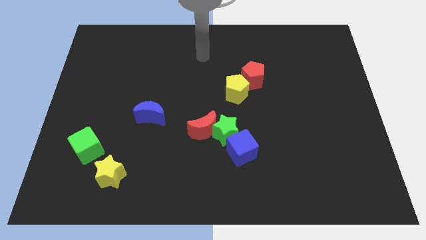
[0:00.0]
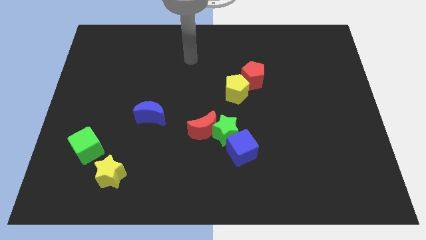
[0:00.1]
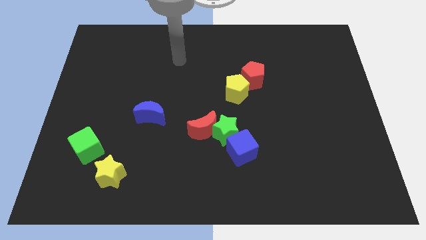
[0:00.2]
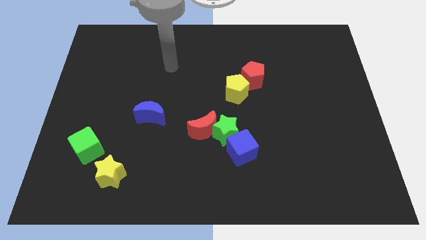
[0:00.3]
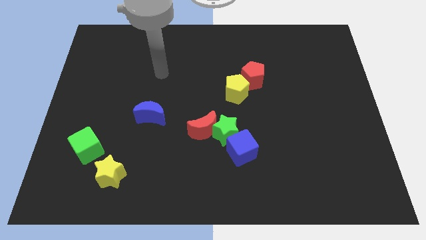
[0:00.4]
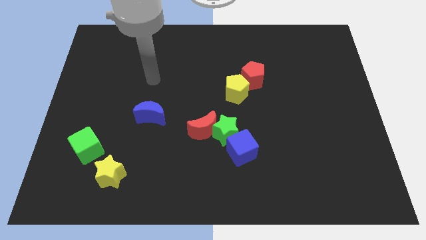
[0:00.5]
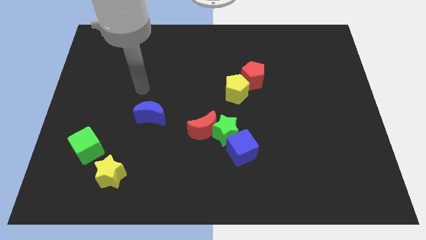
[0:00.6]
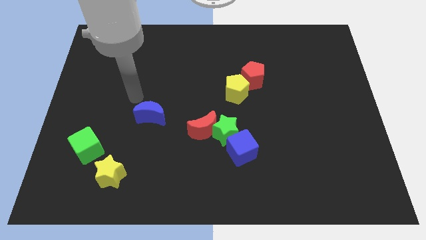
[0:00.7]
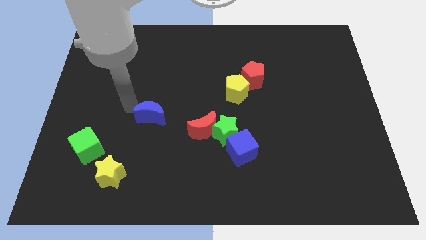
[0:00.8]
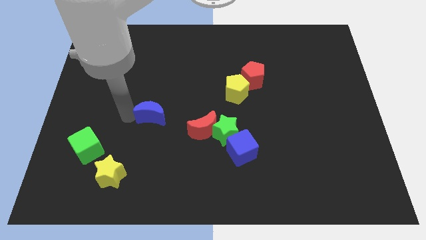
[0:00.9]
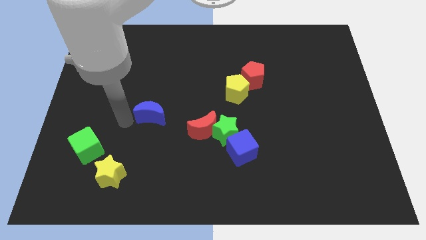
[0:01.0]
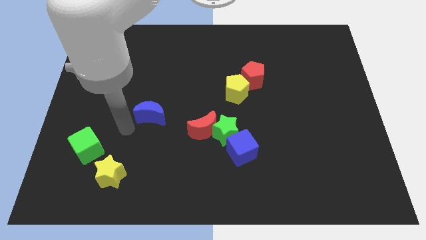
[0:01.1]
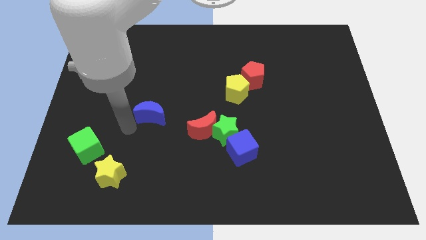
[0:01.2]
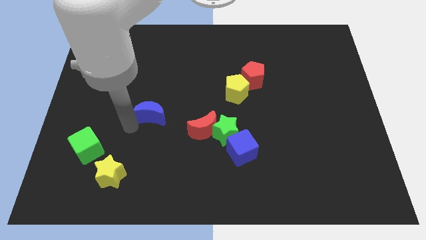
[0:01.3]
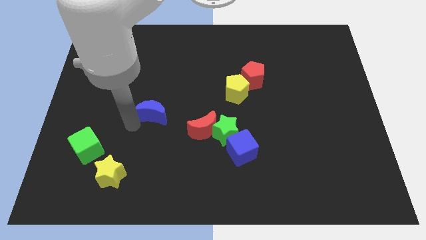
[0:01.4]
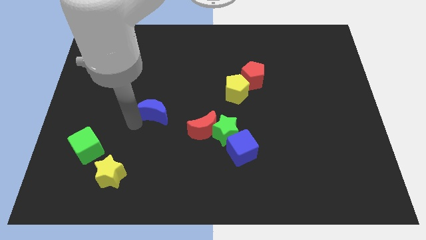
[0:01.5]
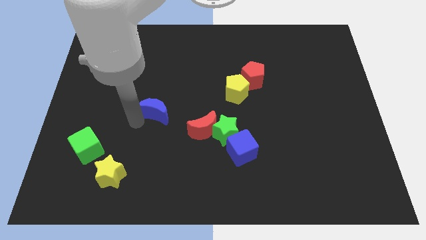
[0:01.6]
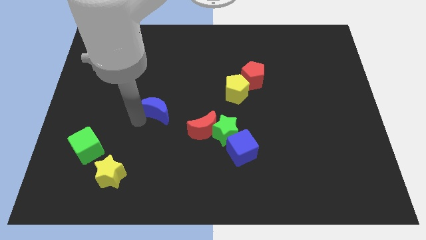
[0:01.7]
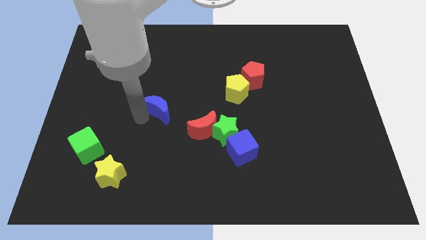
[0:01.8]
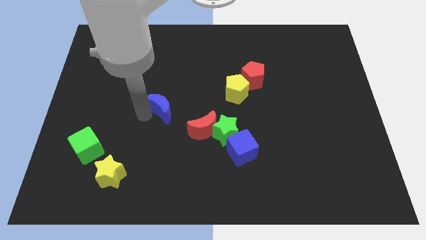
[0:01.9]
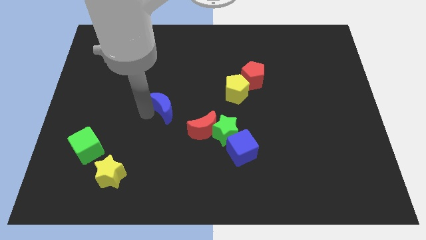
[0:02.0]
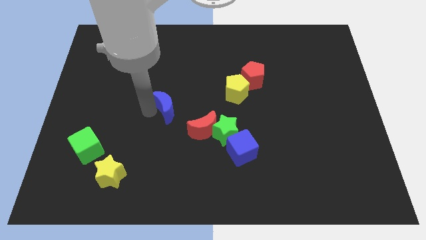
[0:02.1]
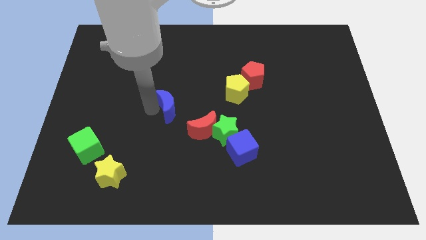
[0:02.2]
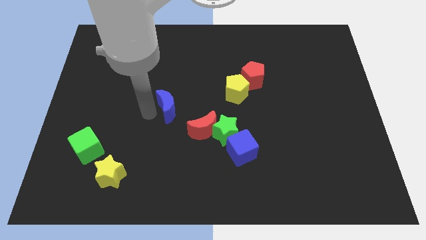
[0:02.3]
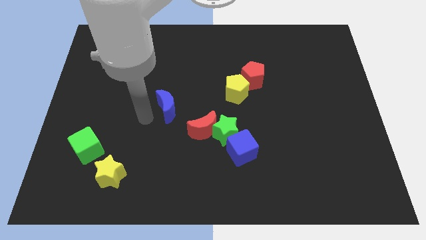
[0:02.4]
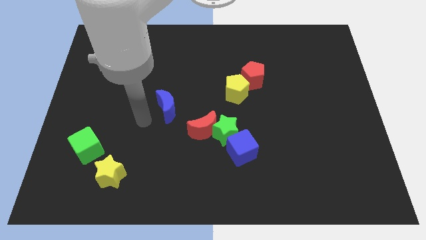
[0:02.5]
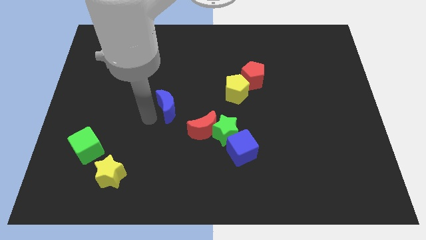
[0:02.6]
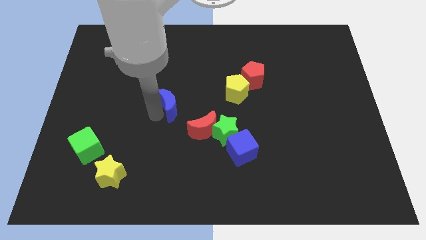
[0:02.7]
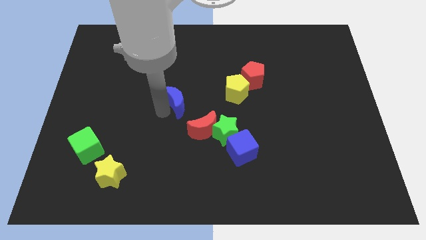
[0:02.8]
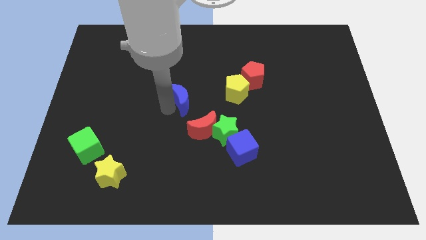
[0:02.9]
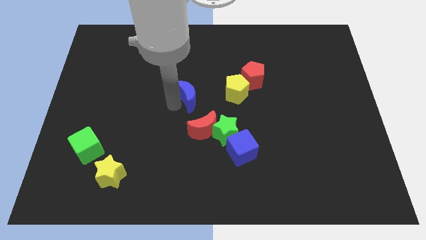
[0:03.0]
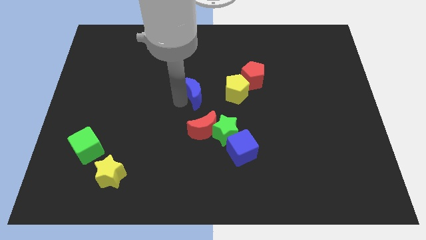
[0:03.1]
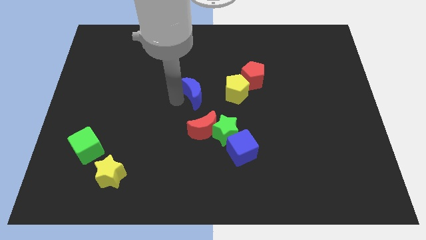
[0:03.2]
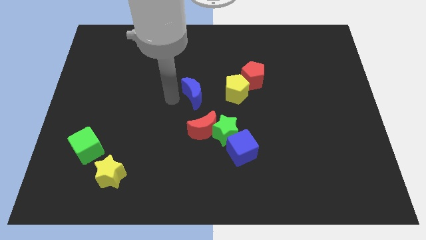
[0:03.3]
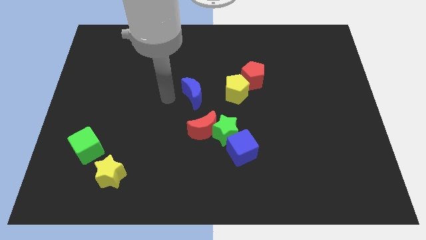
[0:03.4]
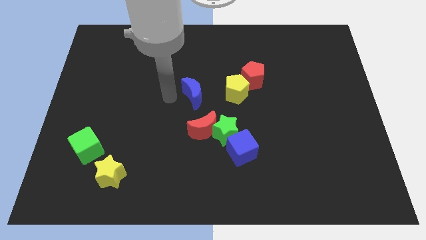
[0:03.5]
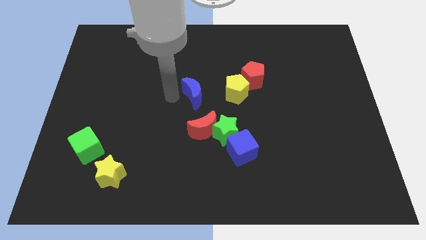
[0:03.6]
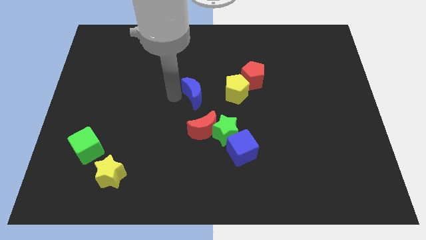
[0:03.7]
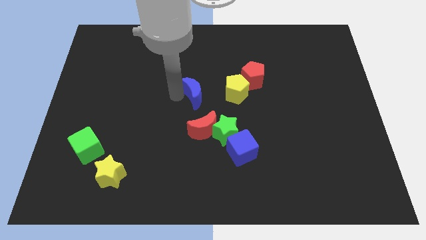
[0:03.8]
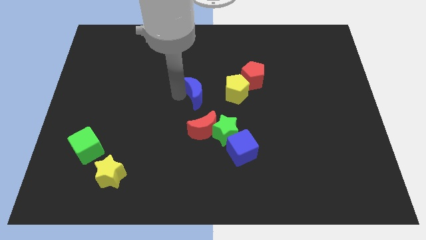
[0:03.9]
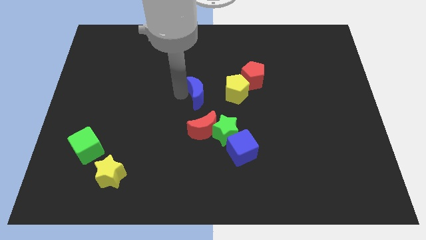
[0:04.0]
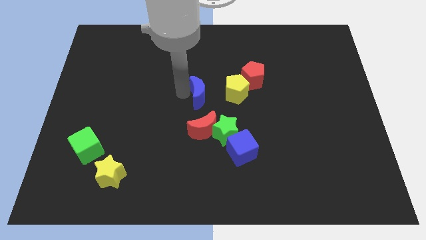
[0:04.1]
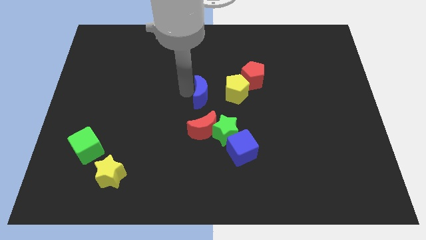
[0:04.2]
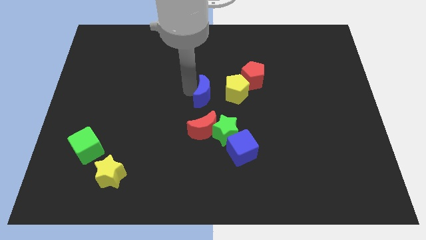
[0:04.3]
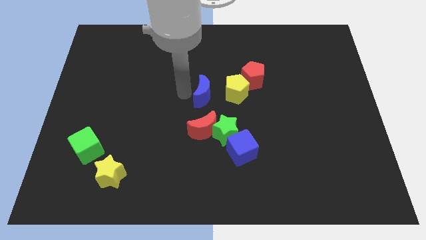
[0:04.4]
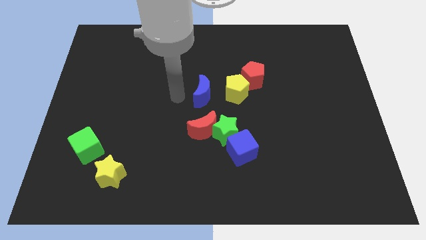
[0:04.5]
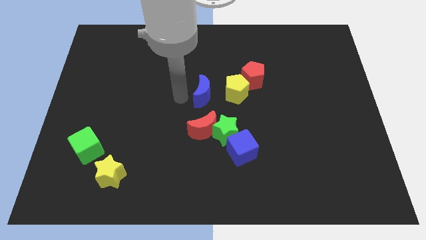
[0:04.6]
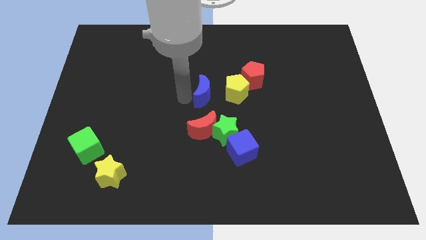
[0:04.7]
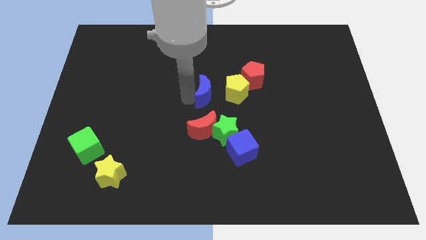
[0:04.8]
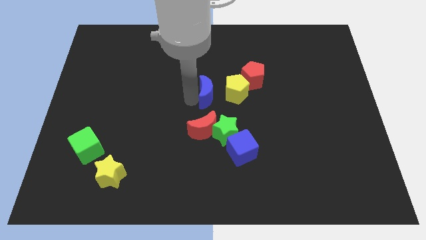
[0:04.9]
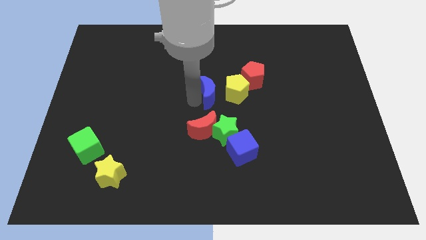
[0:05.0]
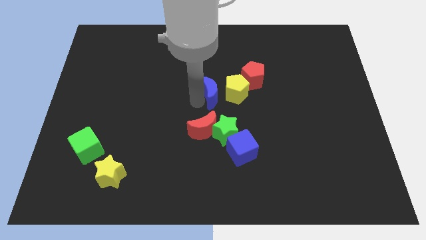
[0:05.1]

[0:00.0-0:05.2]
move the blue moon next to the yellow pentagon

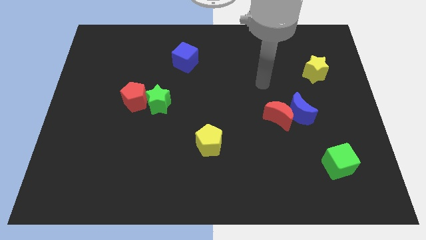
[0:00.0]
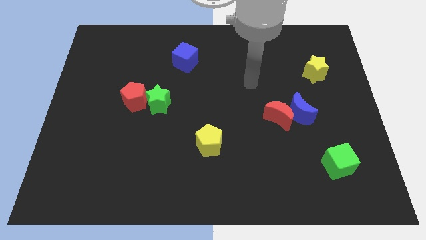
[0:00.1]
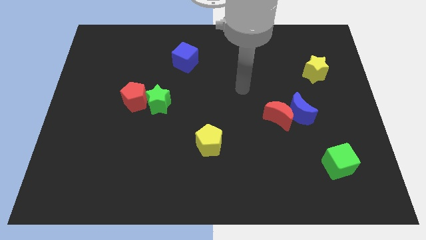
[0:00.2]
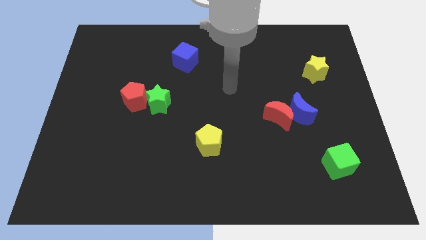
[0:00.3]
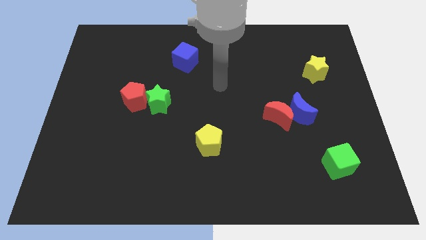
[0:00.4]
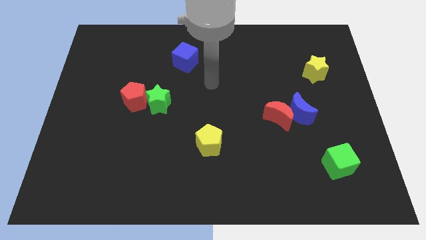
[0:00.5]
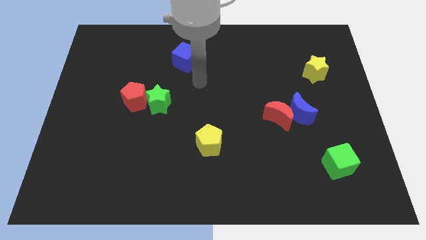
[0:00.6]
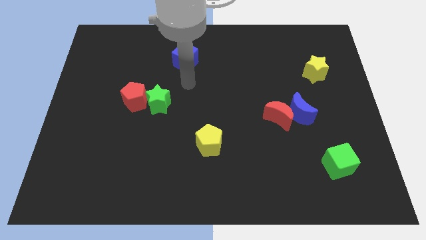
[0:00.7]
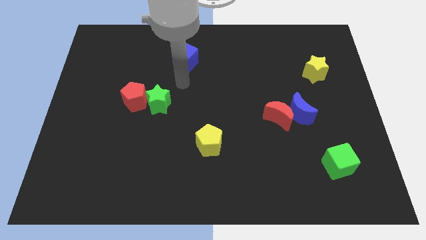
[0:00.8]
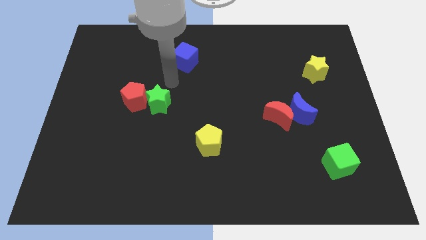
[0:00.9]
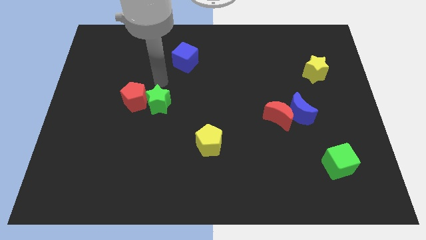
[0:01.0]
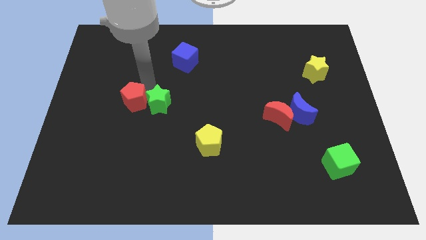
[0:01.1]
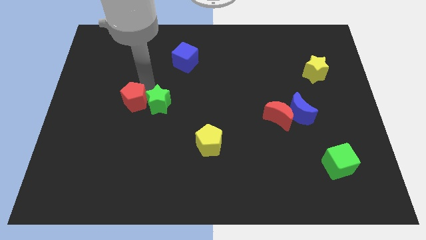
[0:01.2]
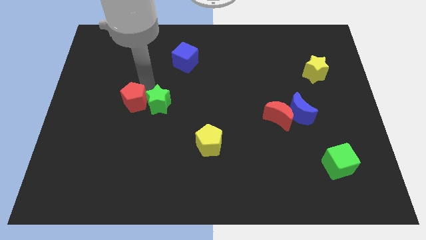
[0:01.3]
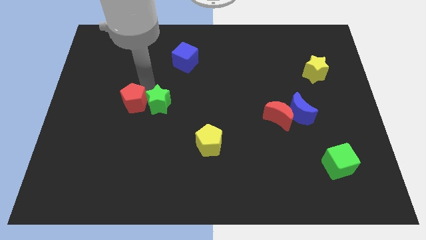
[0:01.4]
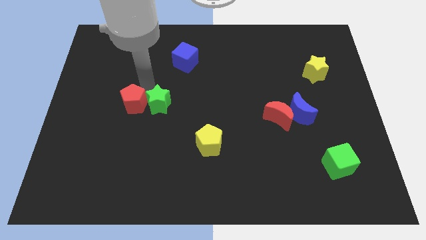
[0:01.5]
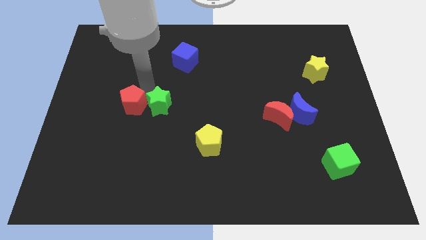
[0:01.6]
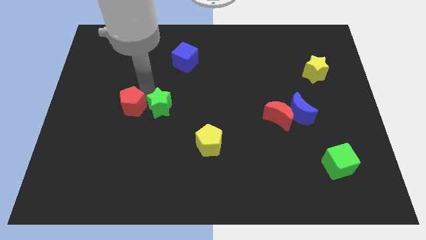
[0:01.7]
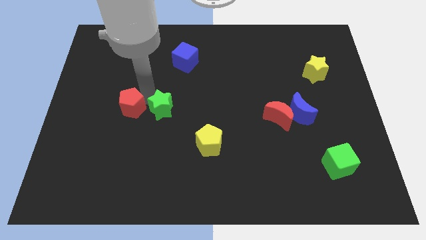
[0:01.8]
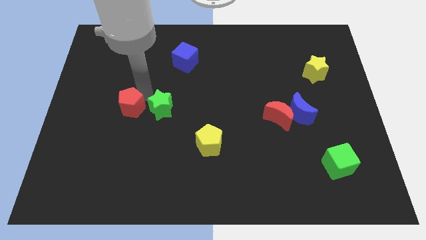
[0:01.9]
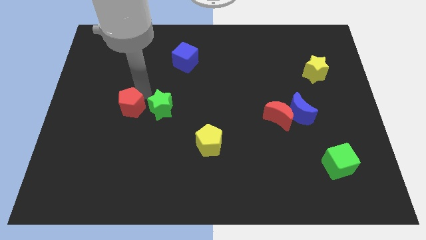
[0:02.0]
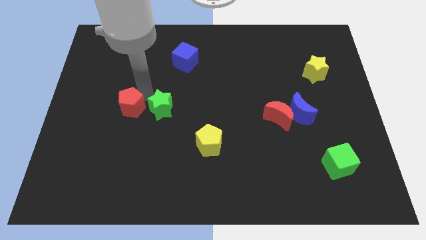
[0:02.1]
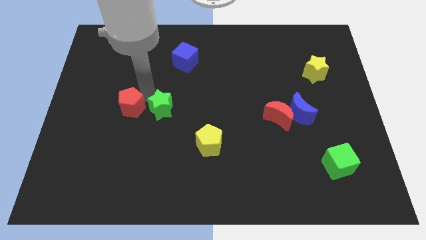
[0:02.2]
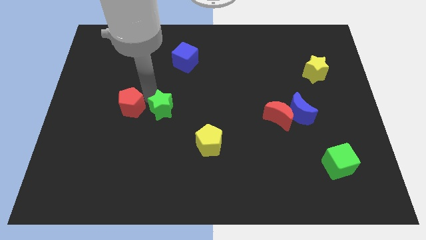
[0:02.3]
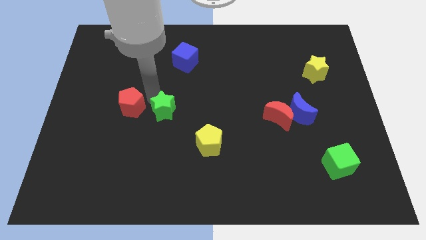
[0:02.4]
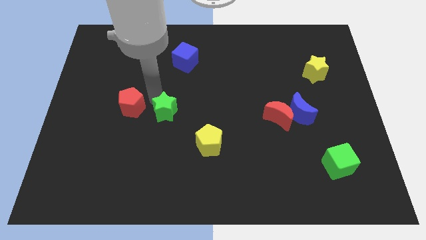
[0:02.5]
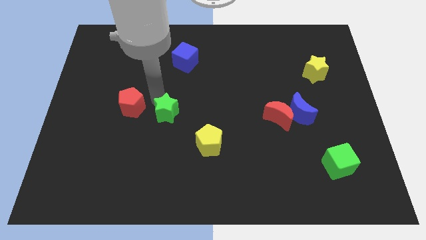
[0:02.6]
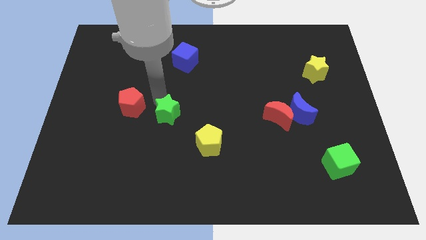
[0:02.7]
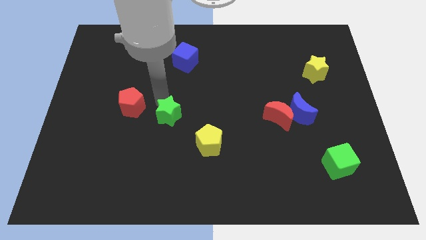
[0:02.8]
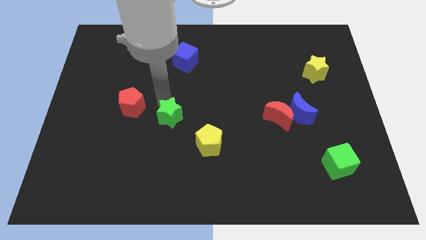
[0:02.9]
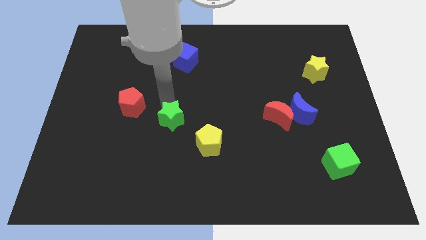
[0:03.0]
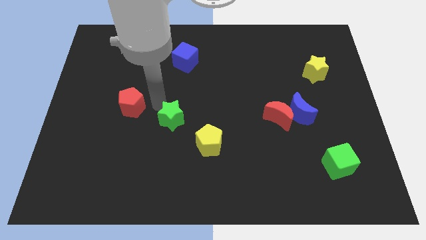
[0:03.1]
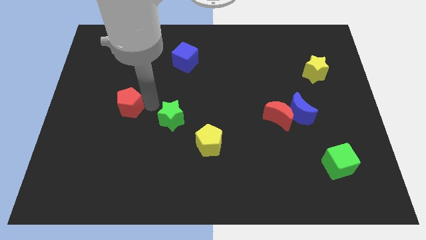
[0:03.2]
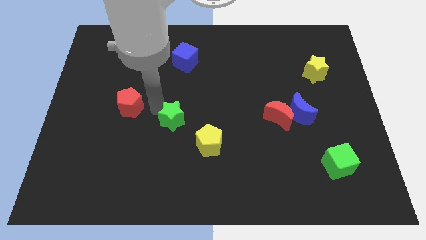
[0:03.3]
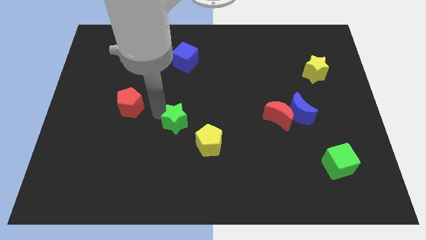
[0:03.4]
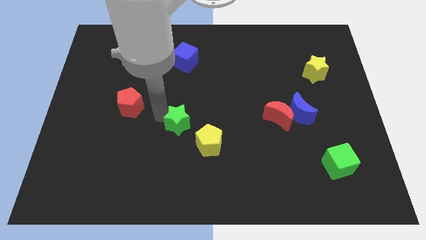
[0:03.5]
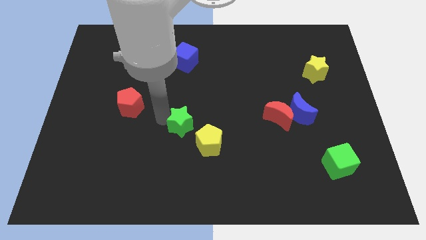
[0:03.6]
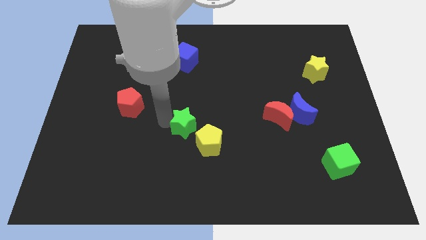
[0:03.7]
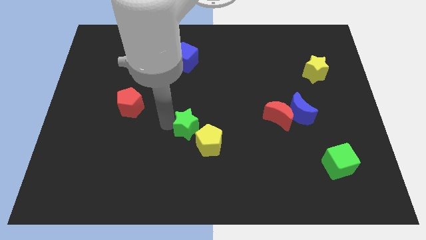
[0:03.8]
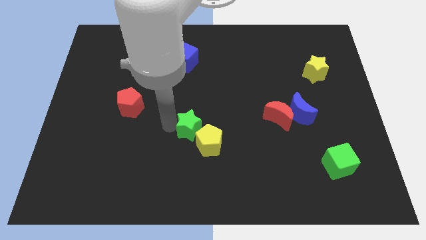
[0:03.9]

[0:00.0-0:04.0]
move the green star to the yellow pentagon
